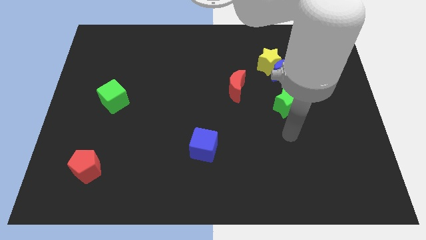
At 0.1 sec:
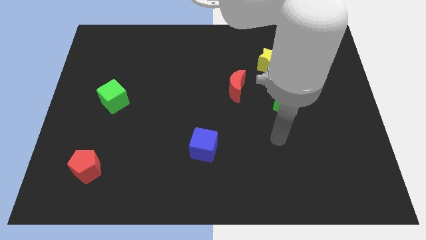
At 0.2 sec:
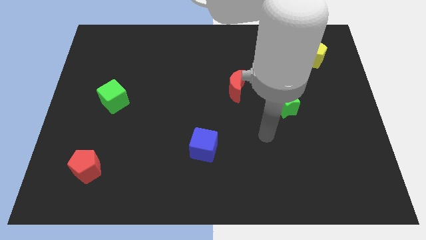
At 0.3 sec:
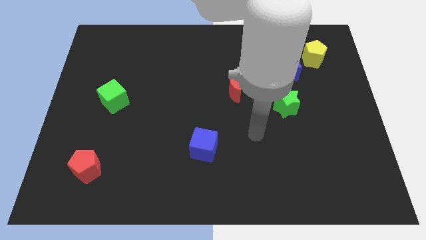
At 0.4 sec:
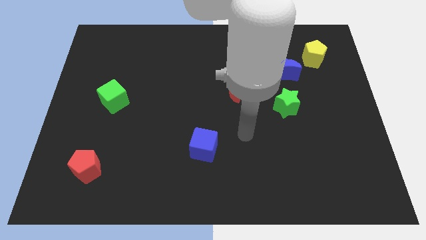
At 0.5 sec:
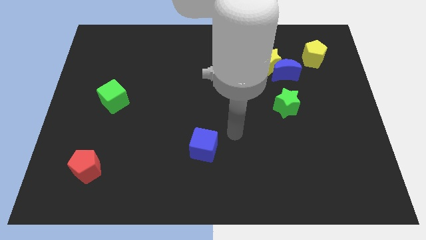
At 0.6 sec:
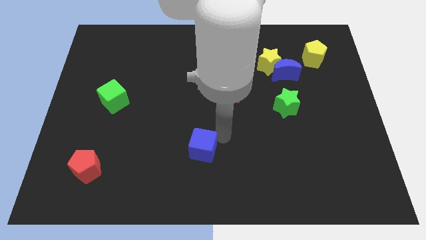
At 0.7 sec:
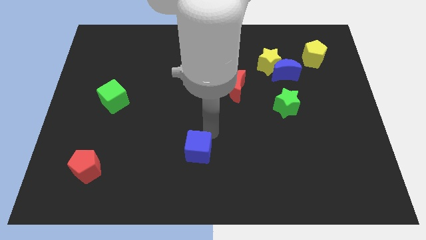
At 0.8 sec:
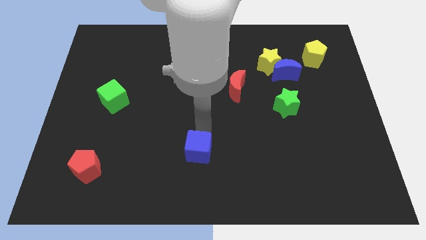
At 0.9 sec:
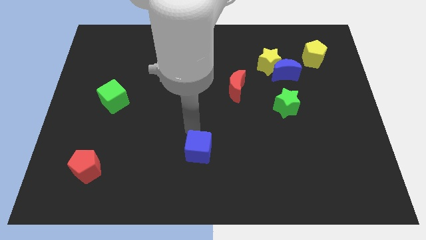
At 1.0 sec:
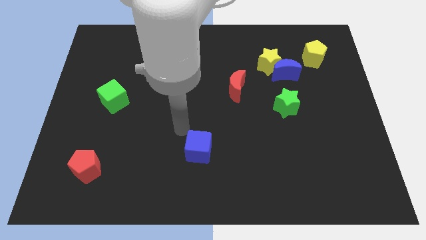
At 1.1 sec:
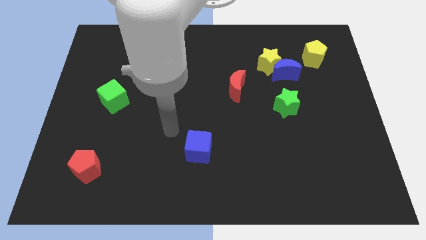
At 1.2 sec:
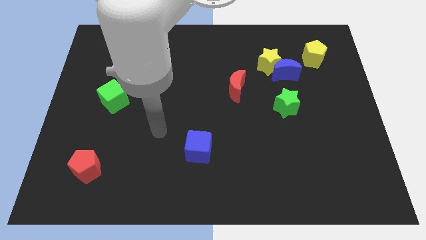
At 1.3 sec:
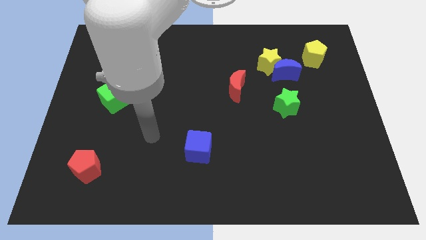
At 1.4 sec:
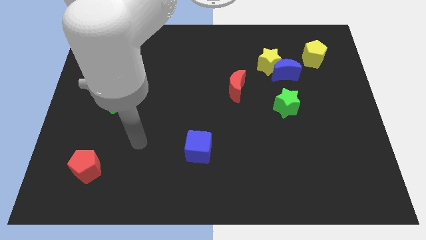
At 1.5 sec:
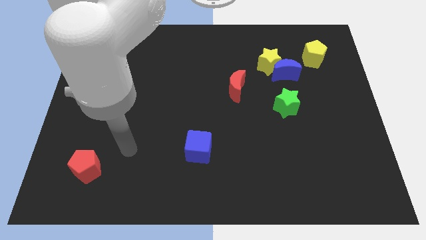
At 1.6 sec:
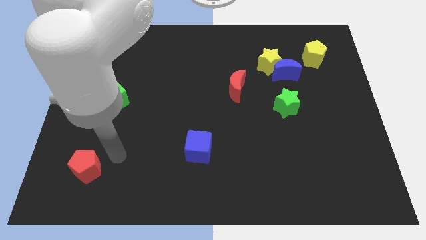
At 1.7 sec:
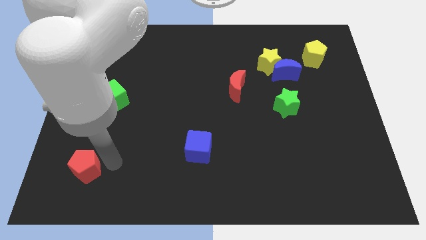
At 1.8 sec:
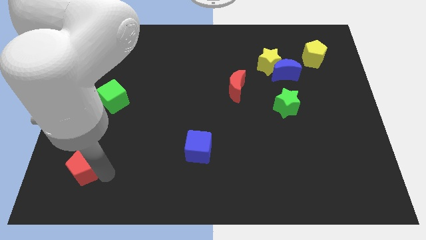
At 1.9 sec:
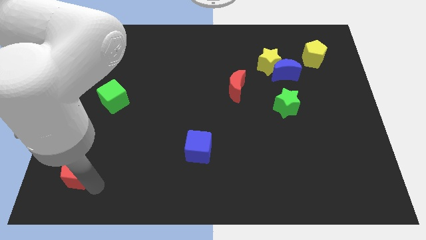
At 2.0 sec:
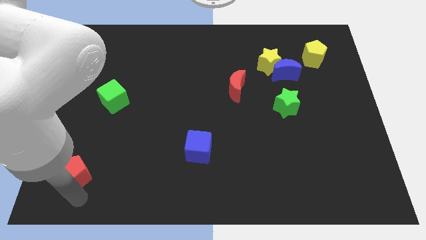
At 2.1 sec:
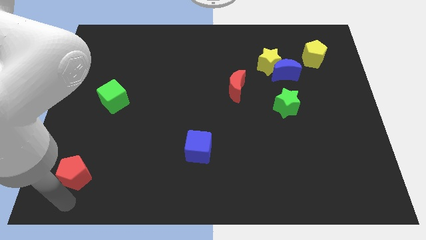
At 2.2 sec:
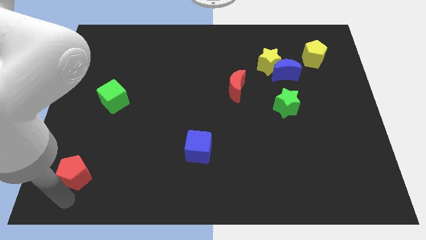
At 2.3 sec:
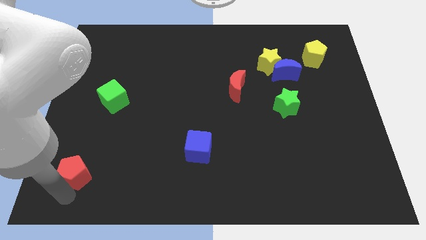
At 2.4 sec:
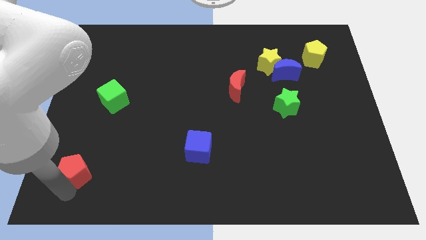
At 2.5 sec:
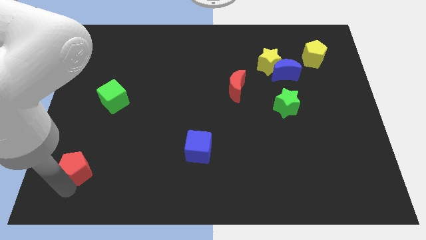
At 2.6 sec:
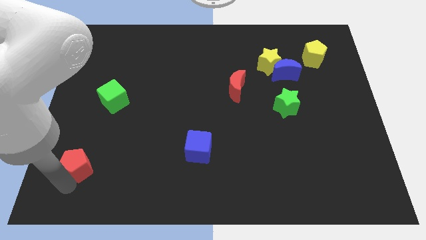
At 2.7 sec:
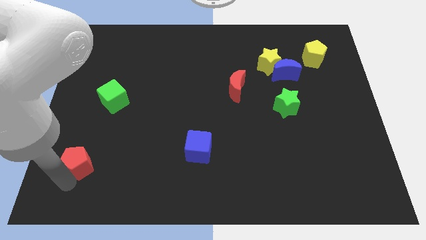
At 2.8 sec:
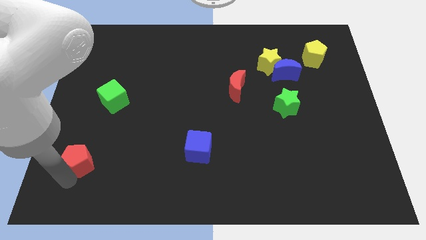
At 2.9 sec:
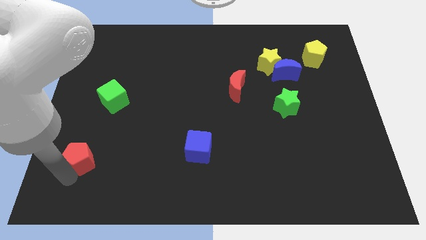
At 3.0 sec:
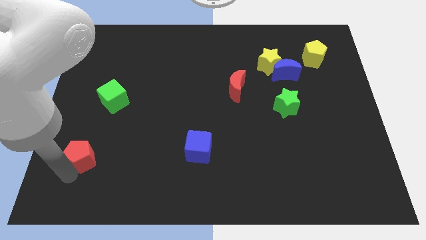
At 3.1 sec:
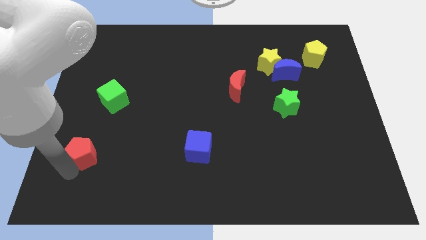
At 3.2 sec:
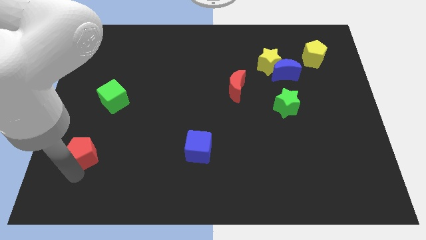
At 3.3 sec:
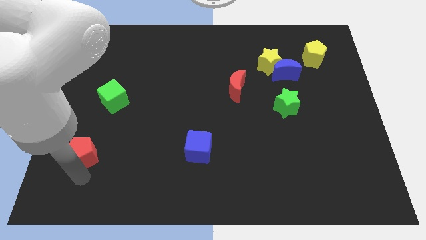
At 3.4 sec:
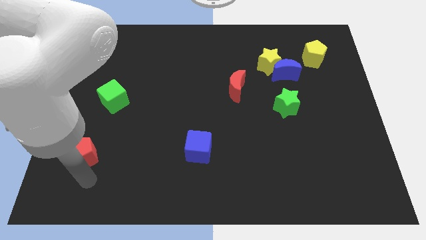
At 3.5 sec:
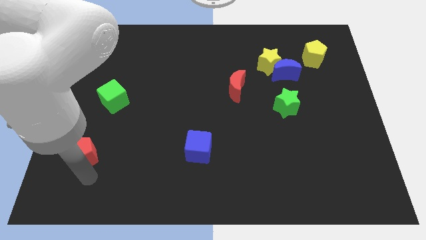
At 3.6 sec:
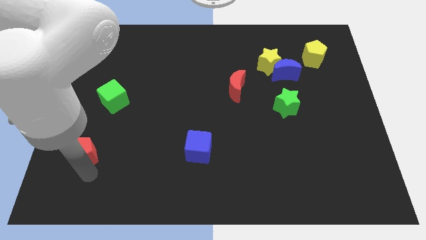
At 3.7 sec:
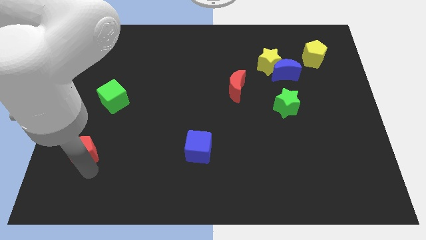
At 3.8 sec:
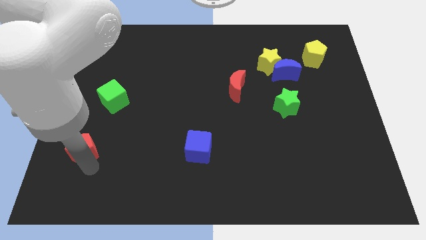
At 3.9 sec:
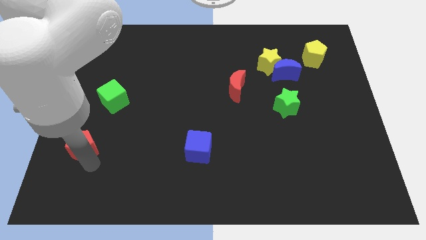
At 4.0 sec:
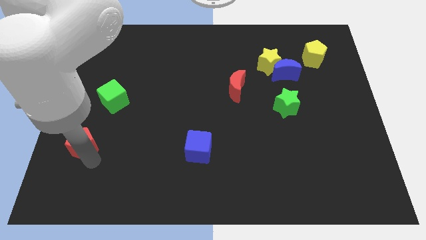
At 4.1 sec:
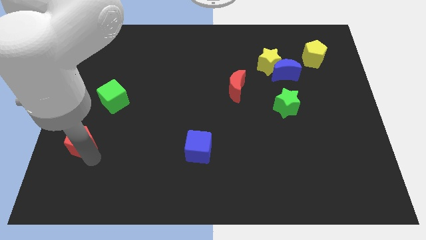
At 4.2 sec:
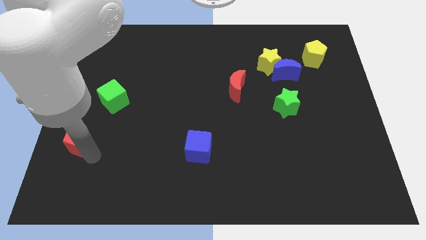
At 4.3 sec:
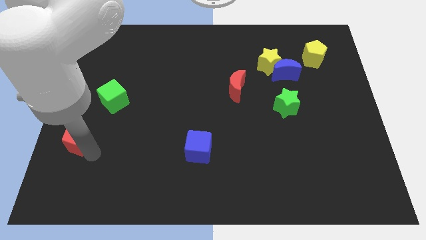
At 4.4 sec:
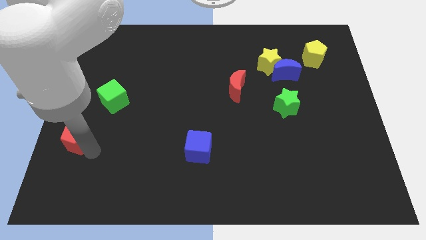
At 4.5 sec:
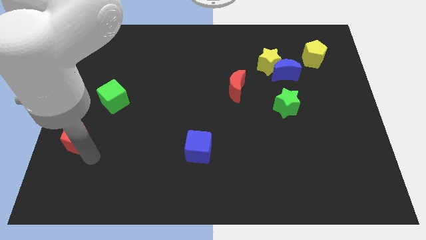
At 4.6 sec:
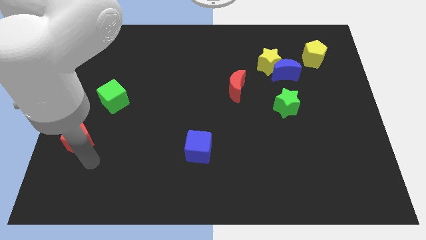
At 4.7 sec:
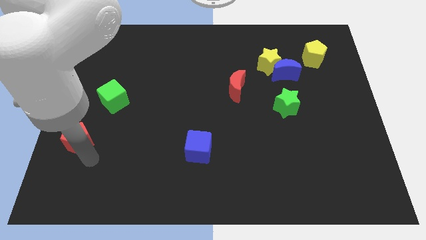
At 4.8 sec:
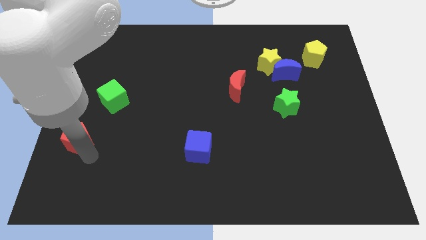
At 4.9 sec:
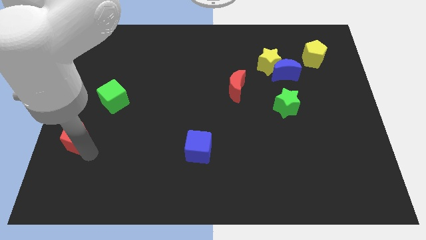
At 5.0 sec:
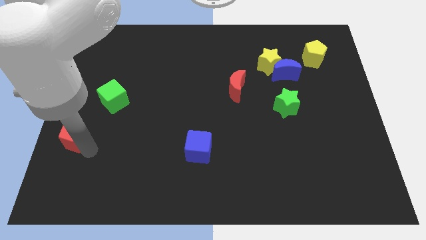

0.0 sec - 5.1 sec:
put the red pentagon to the center left
